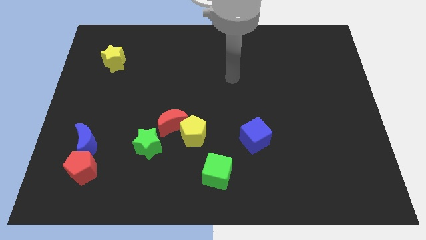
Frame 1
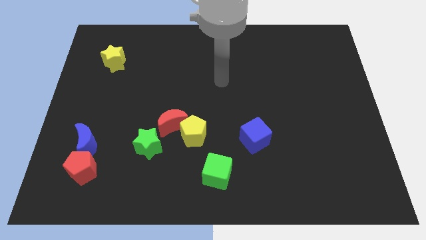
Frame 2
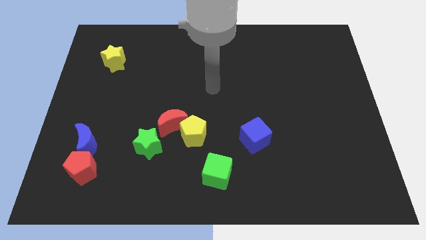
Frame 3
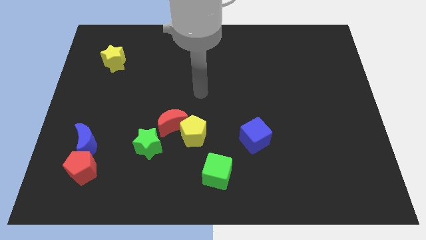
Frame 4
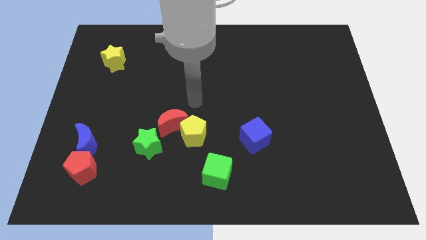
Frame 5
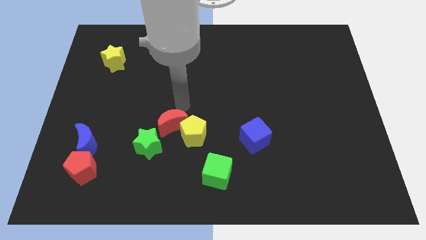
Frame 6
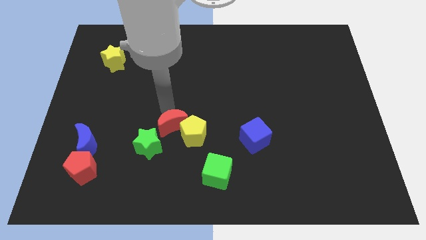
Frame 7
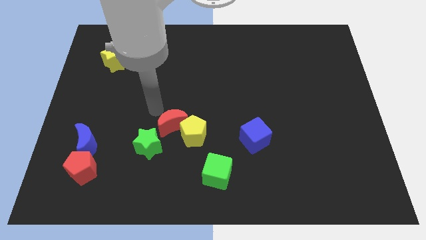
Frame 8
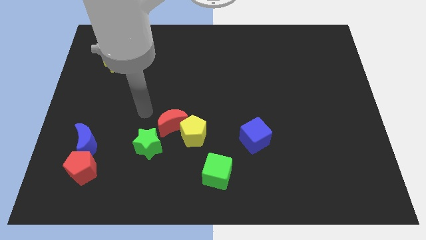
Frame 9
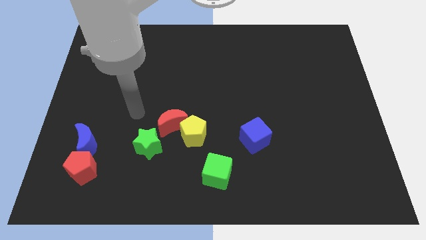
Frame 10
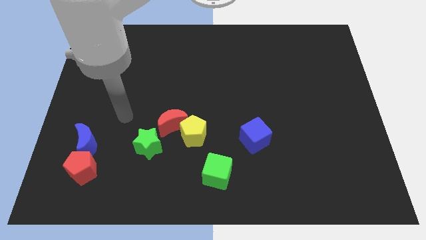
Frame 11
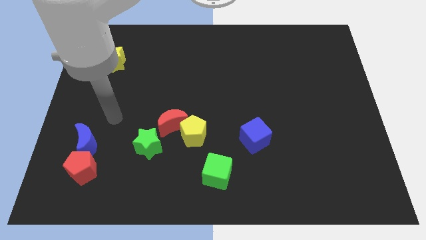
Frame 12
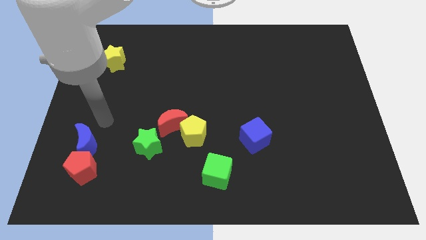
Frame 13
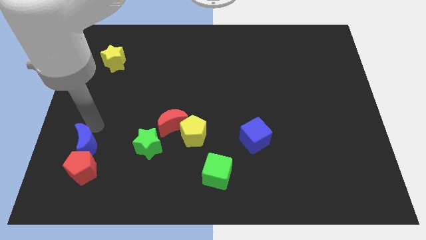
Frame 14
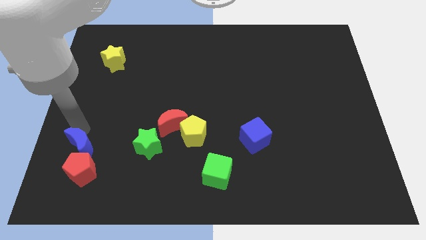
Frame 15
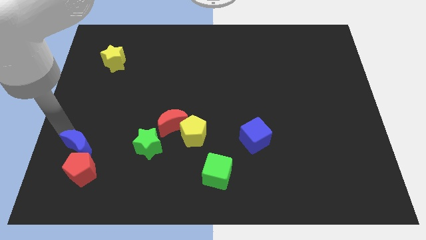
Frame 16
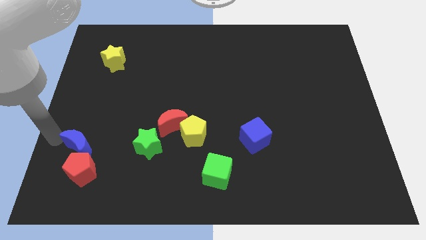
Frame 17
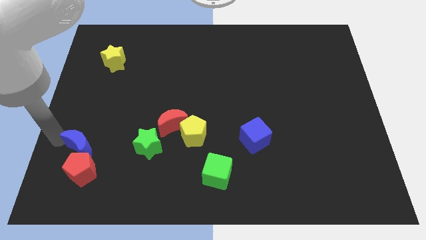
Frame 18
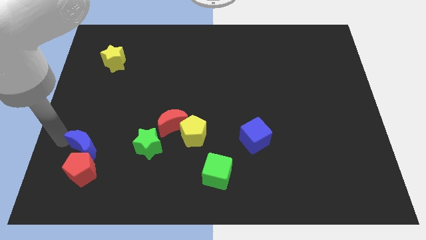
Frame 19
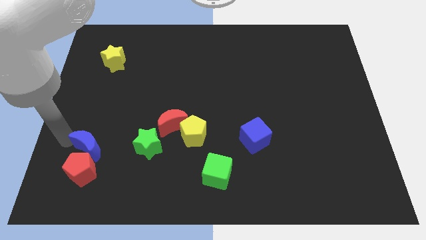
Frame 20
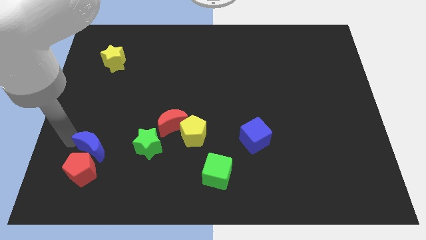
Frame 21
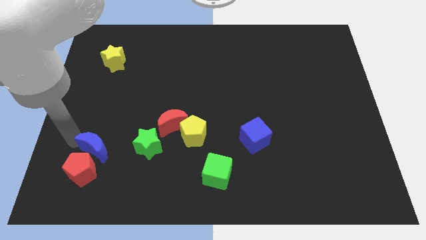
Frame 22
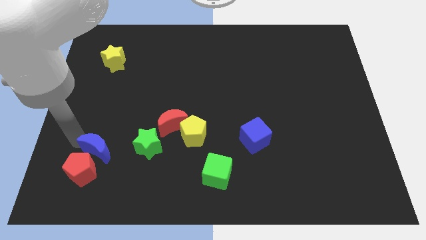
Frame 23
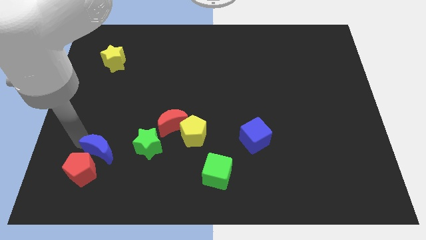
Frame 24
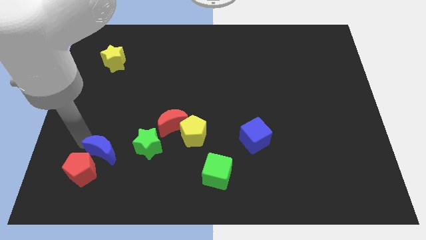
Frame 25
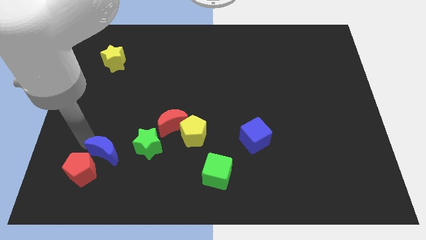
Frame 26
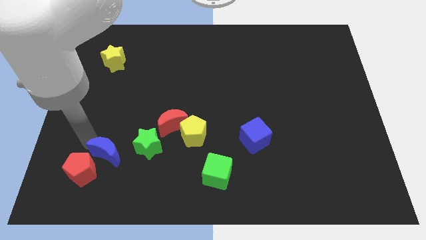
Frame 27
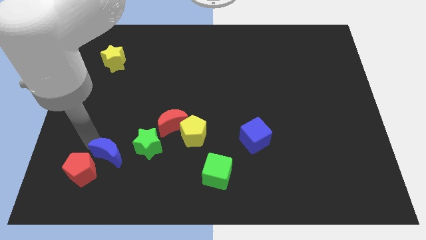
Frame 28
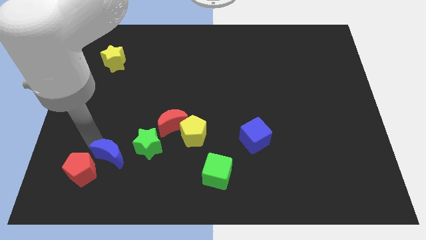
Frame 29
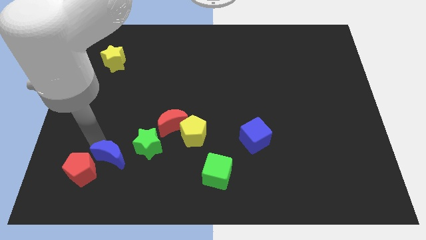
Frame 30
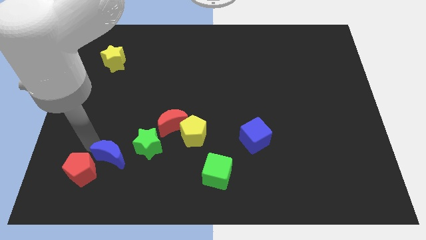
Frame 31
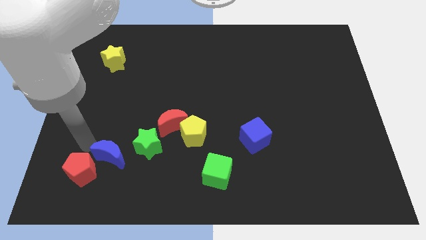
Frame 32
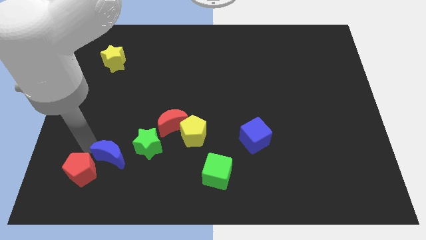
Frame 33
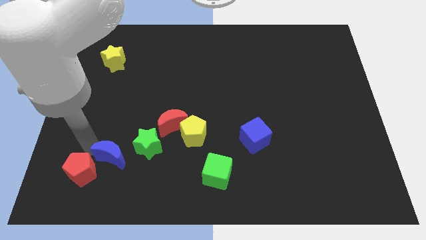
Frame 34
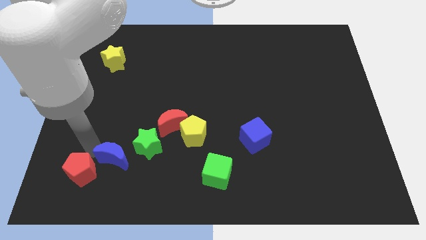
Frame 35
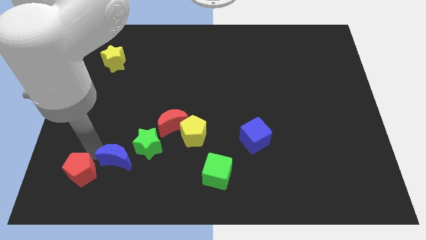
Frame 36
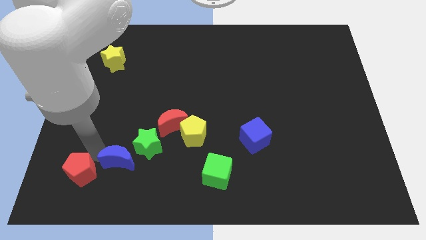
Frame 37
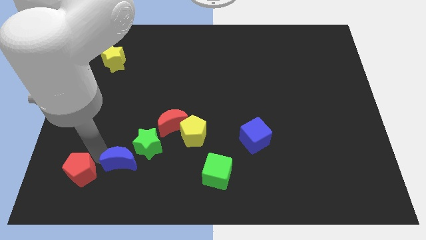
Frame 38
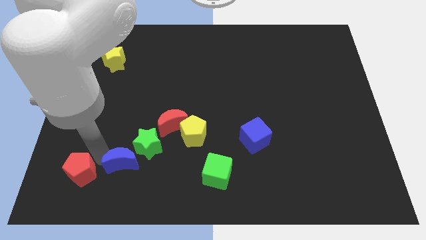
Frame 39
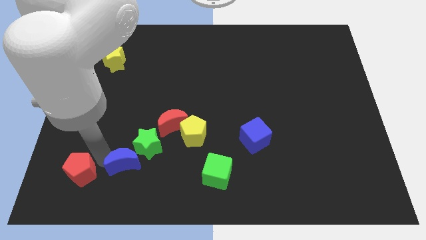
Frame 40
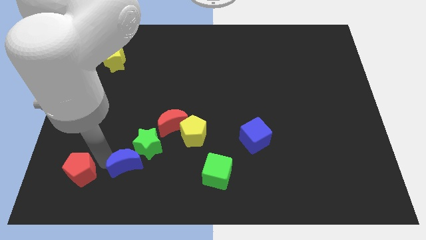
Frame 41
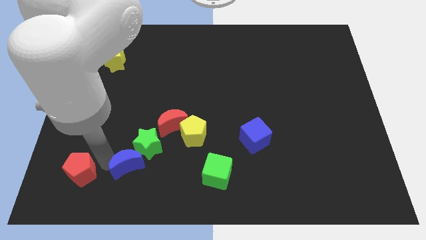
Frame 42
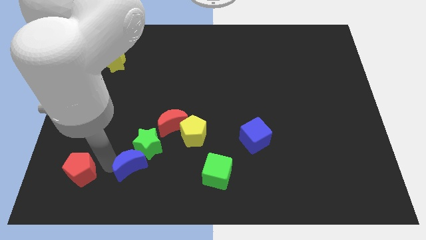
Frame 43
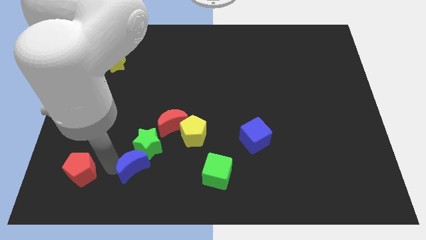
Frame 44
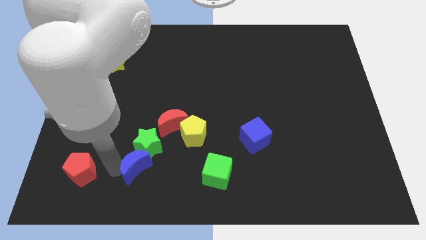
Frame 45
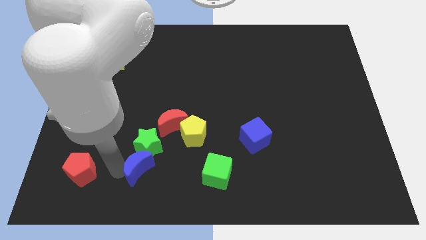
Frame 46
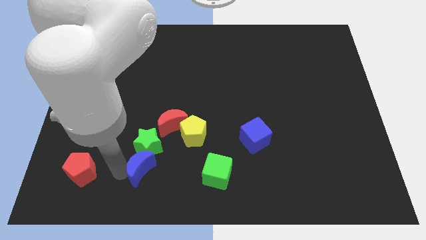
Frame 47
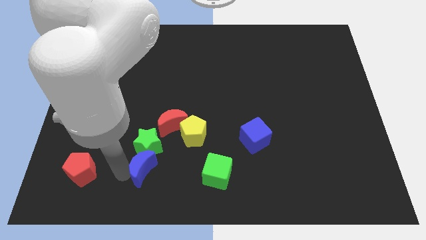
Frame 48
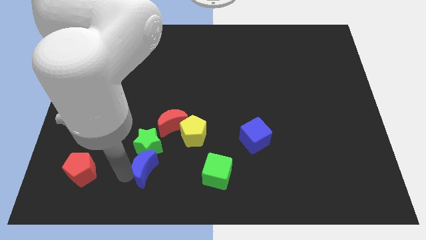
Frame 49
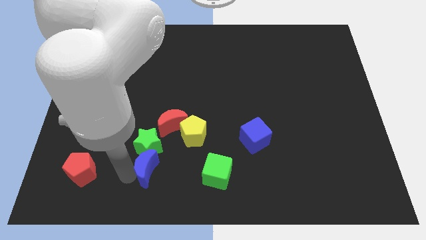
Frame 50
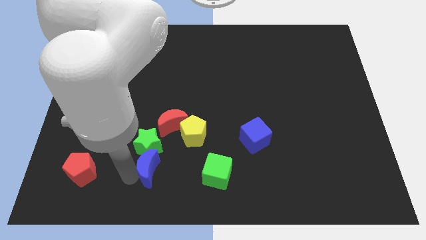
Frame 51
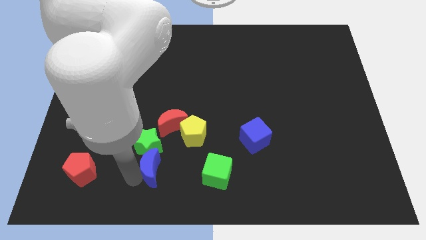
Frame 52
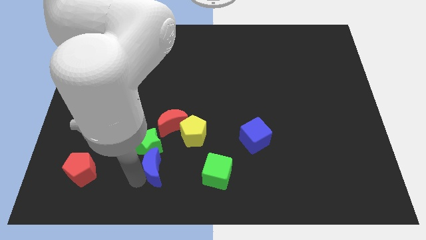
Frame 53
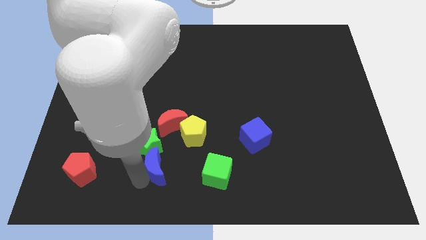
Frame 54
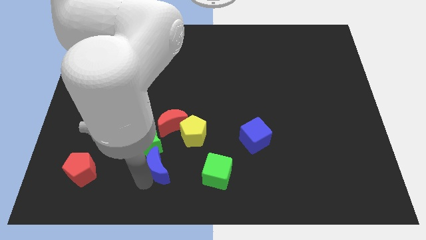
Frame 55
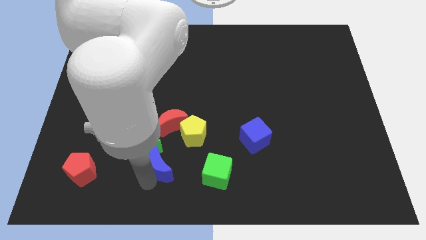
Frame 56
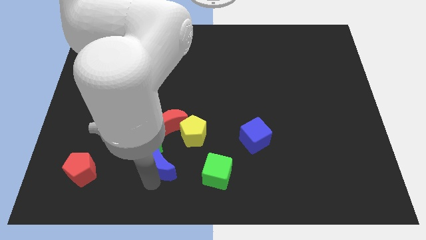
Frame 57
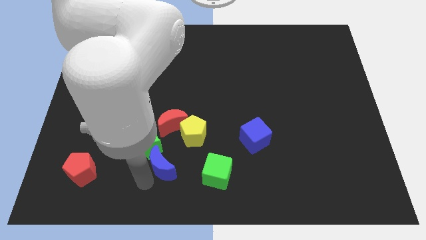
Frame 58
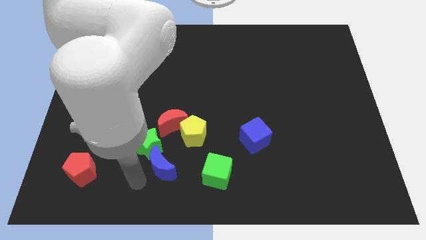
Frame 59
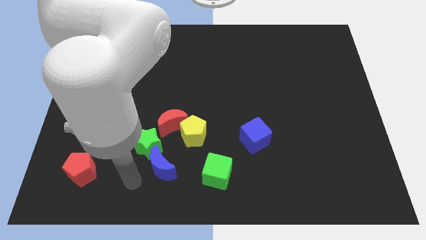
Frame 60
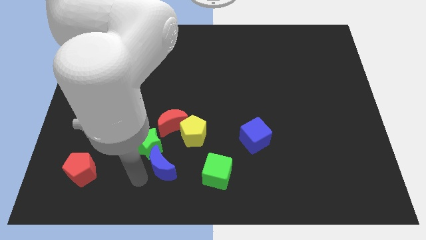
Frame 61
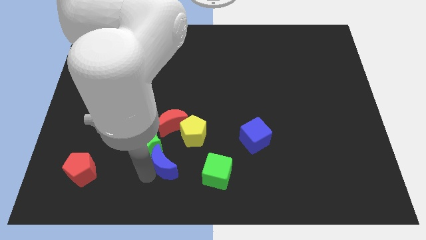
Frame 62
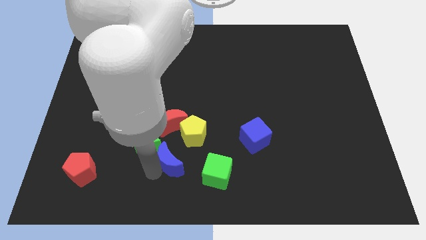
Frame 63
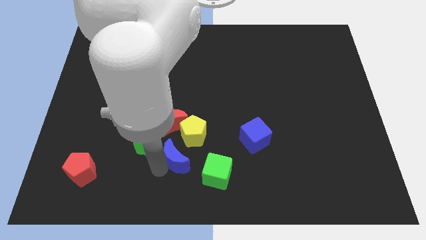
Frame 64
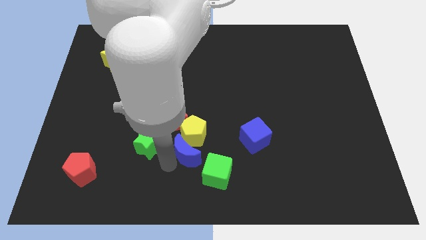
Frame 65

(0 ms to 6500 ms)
push the blue moon right

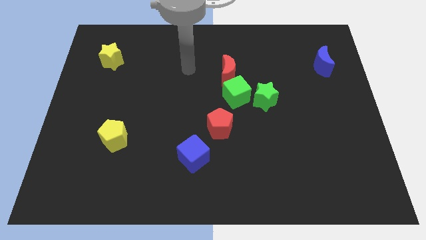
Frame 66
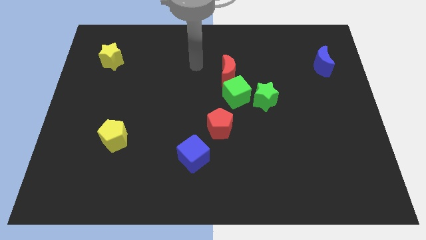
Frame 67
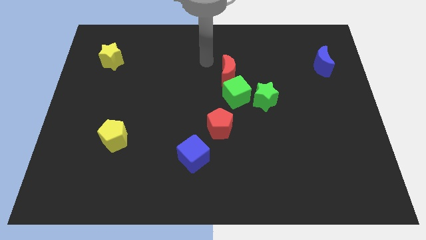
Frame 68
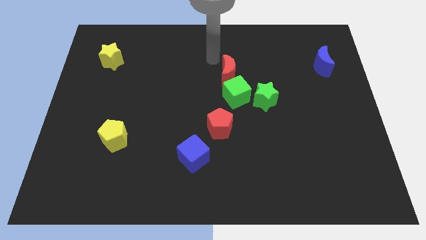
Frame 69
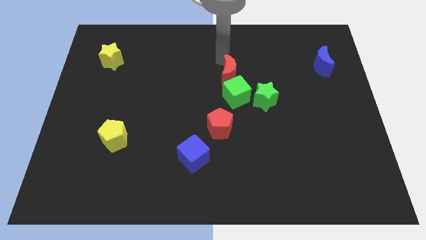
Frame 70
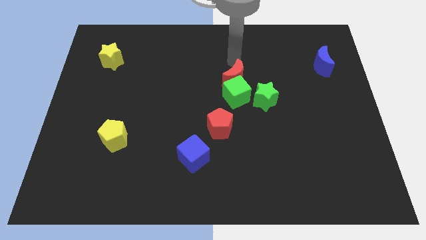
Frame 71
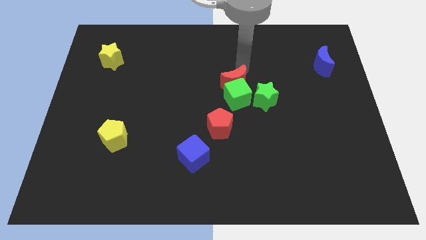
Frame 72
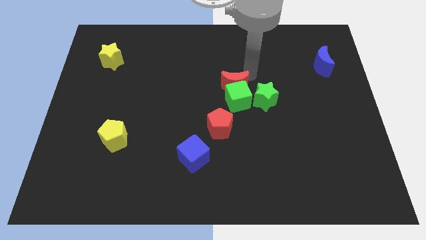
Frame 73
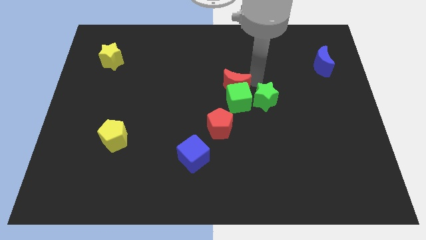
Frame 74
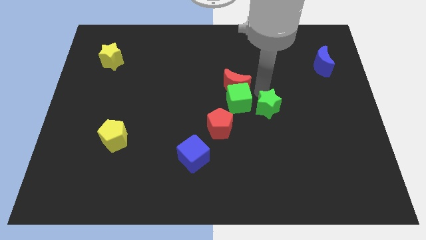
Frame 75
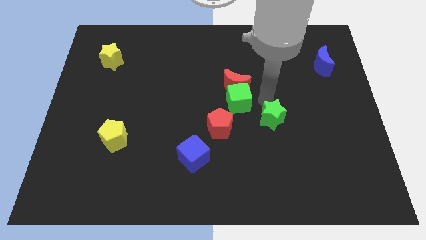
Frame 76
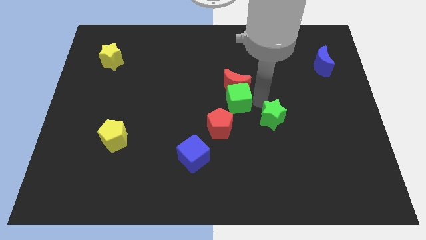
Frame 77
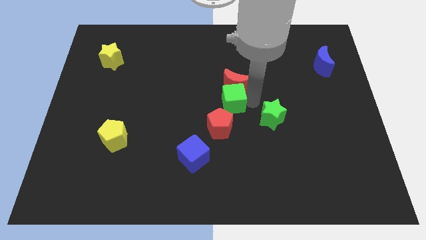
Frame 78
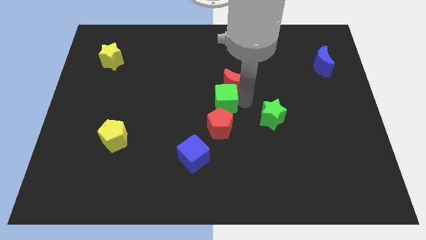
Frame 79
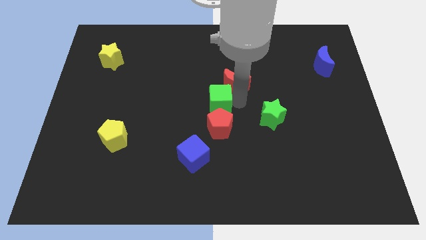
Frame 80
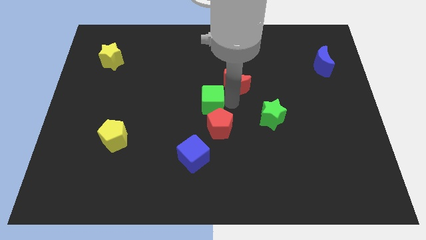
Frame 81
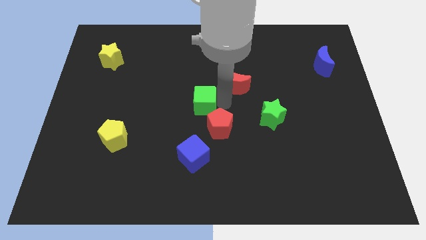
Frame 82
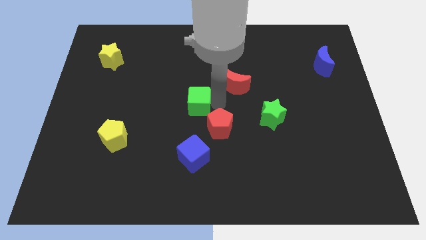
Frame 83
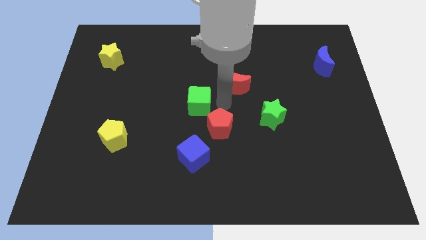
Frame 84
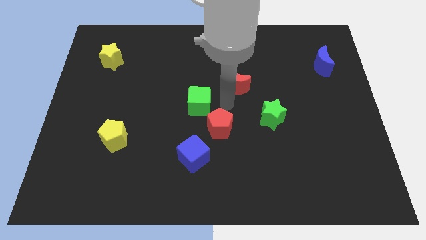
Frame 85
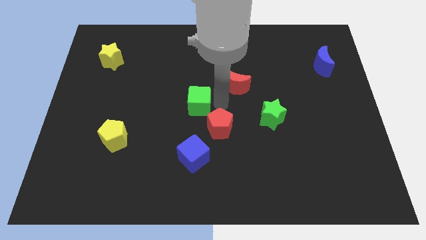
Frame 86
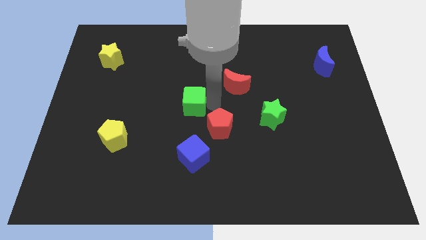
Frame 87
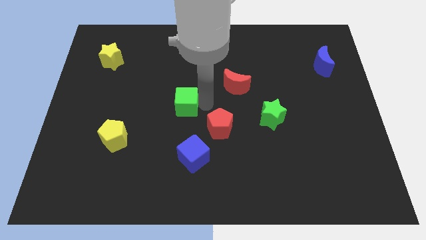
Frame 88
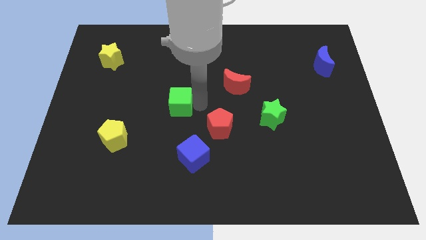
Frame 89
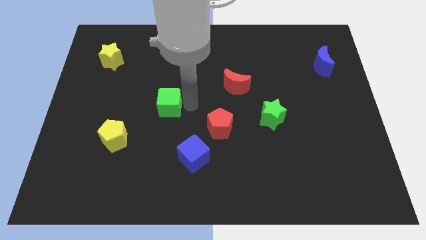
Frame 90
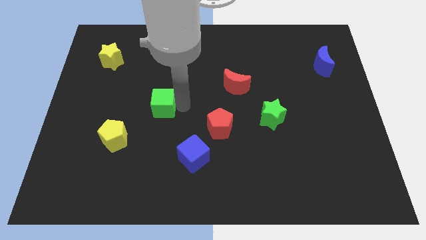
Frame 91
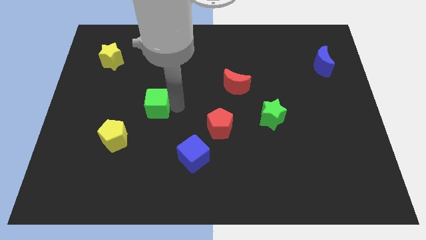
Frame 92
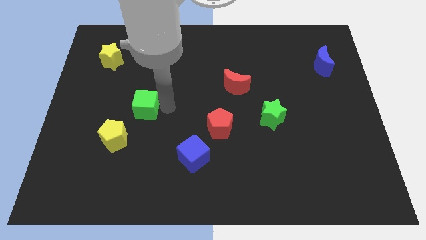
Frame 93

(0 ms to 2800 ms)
move the green cube to the left
